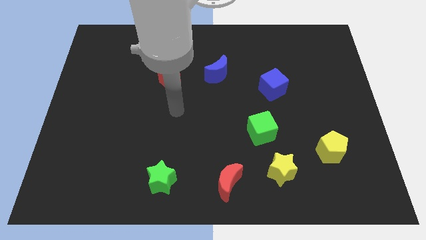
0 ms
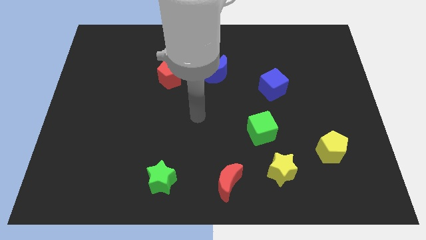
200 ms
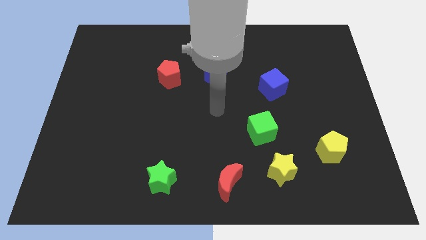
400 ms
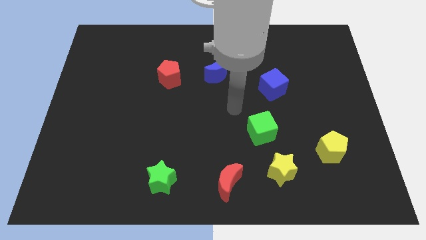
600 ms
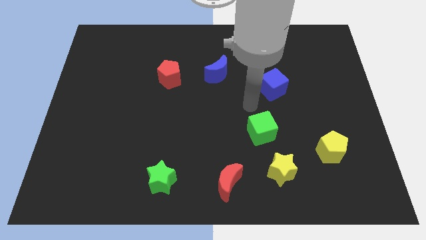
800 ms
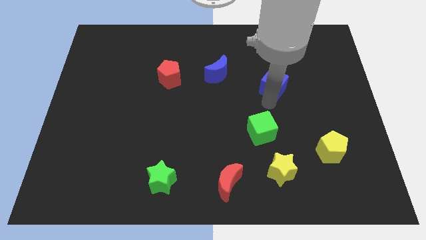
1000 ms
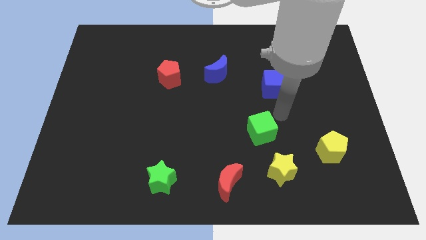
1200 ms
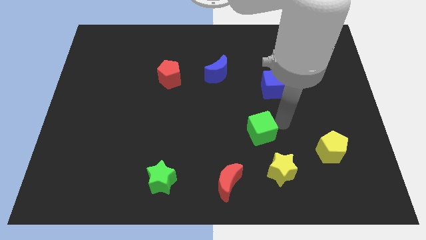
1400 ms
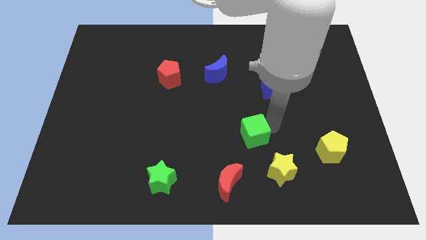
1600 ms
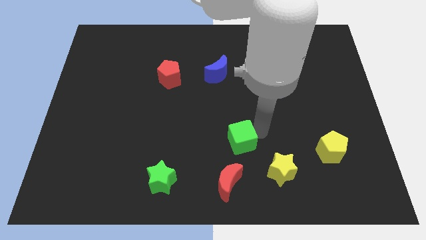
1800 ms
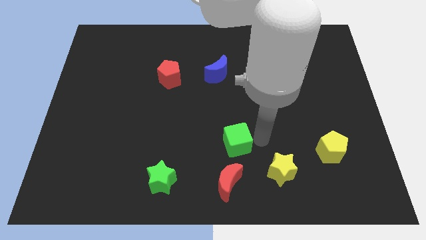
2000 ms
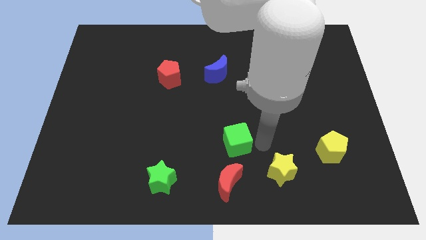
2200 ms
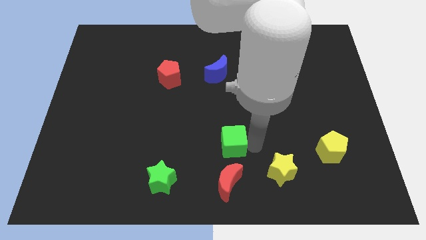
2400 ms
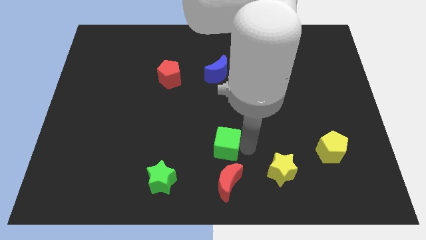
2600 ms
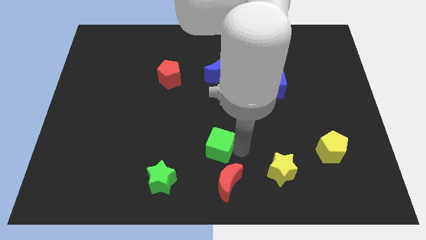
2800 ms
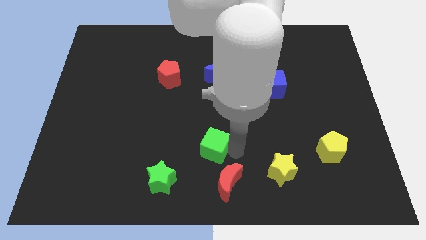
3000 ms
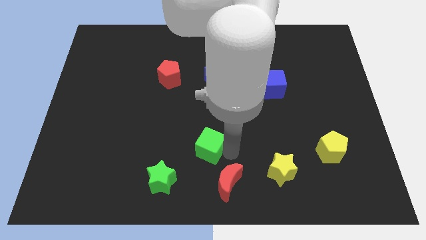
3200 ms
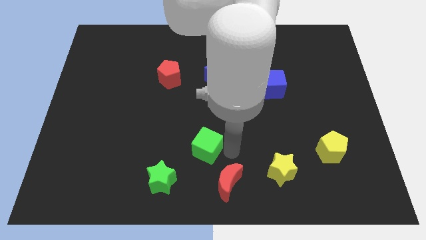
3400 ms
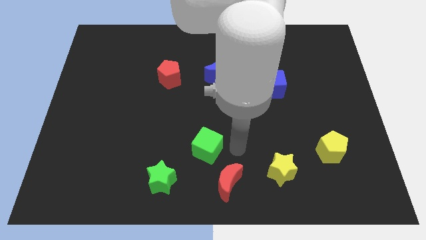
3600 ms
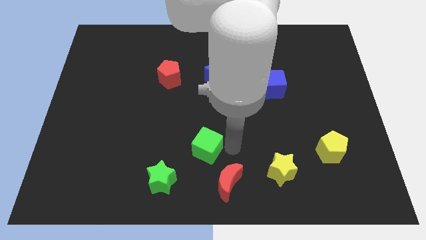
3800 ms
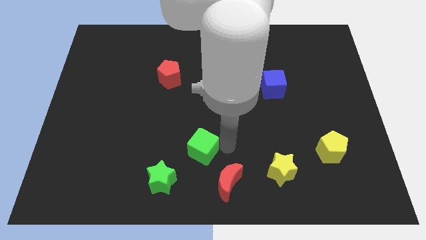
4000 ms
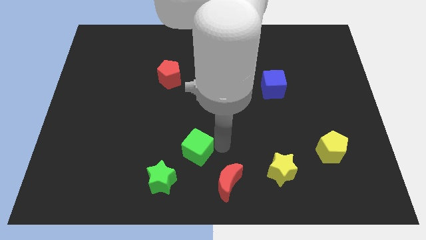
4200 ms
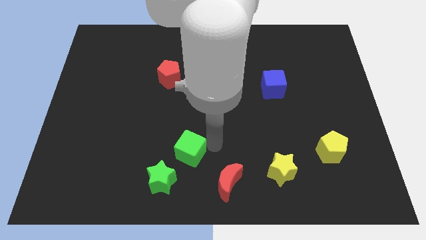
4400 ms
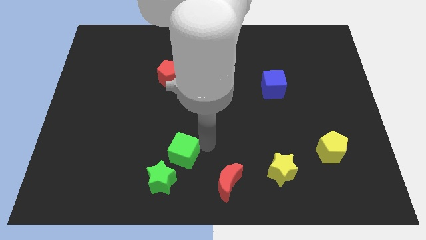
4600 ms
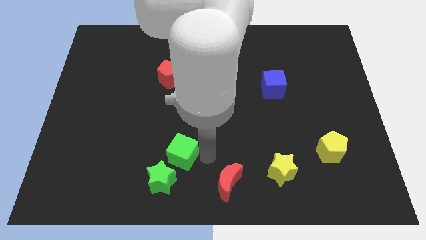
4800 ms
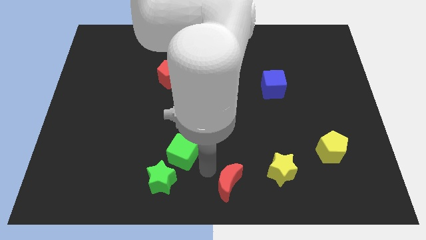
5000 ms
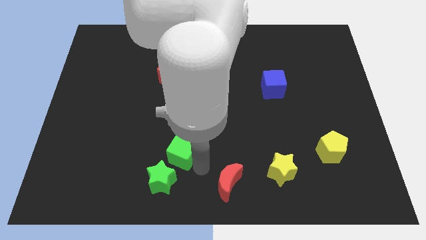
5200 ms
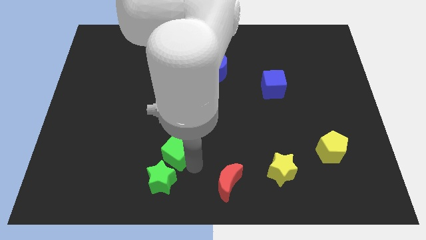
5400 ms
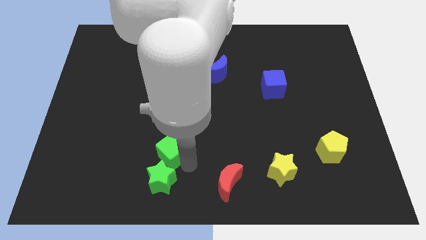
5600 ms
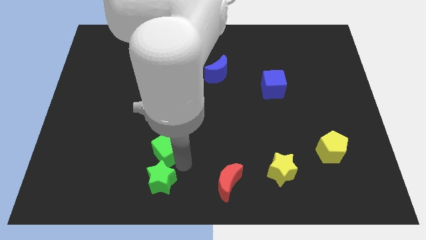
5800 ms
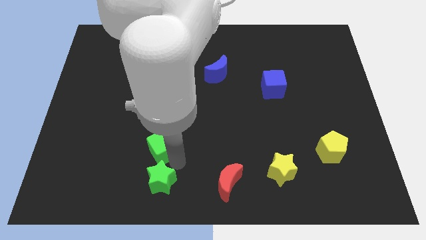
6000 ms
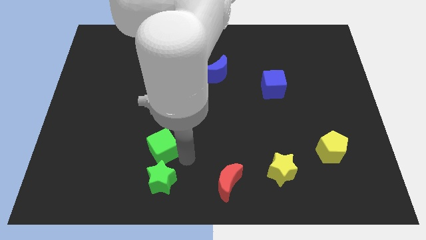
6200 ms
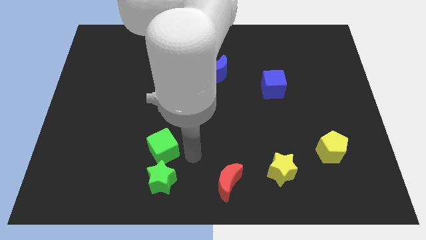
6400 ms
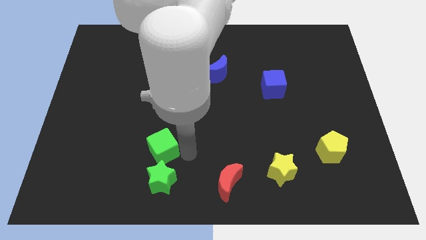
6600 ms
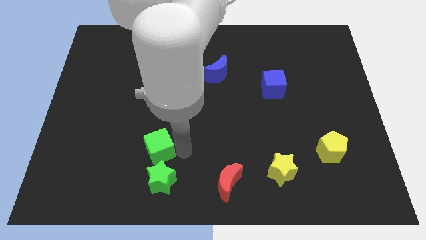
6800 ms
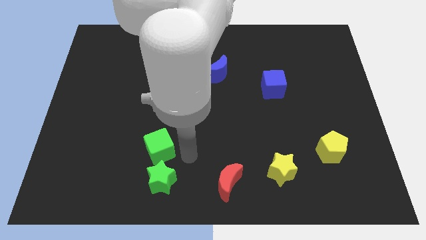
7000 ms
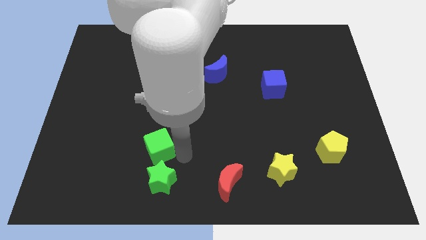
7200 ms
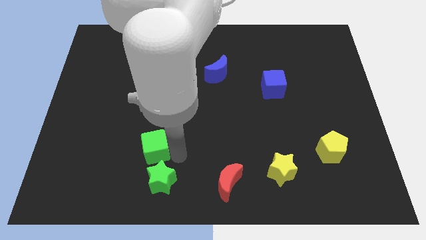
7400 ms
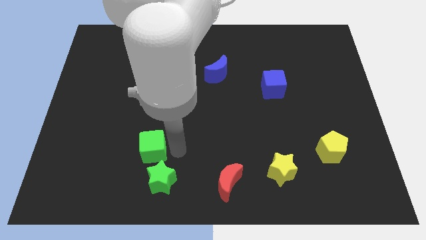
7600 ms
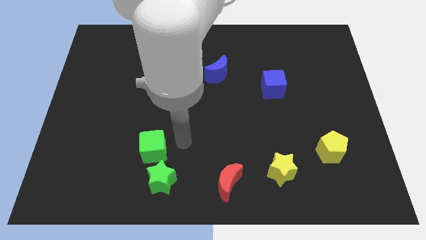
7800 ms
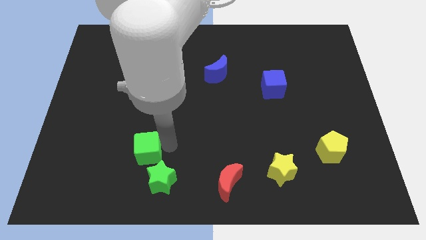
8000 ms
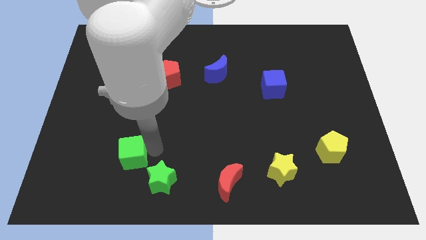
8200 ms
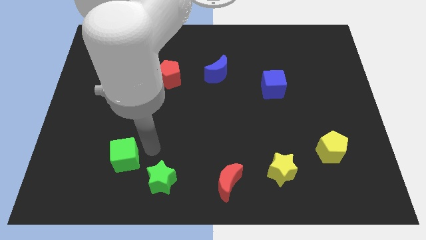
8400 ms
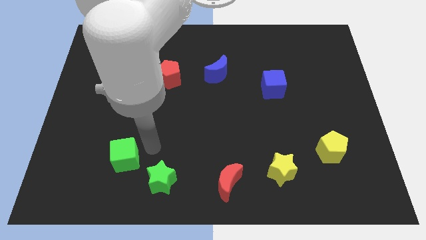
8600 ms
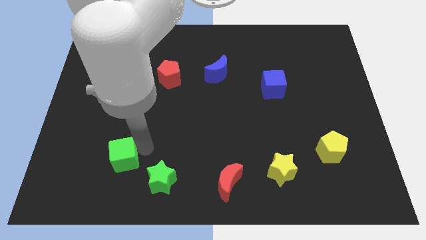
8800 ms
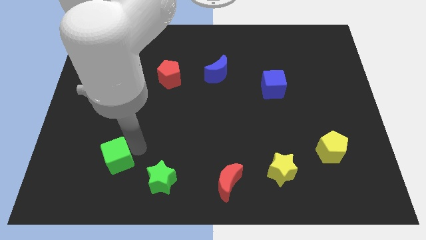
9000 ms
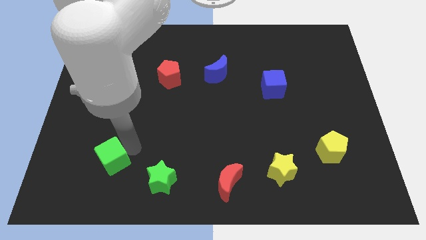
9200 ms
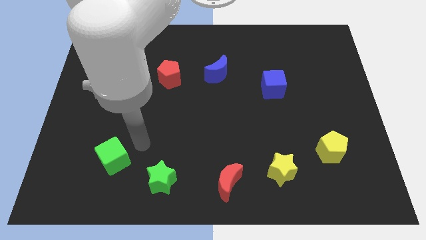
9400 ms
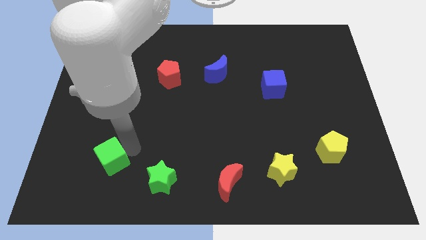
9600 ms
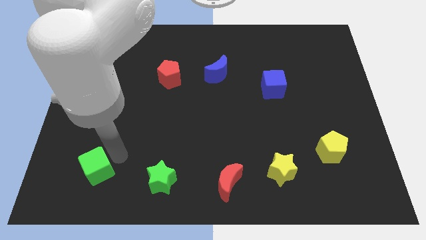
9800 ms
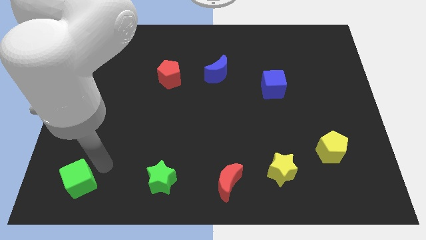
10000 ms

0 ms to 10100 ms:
push the green cube to the lower left corner
